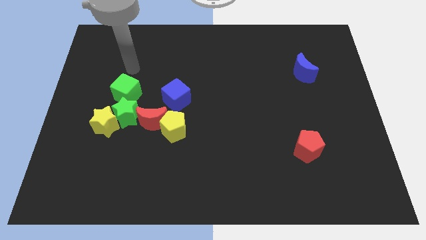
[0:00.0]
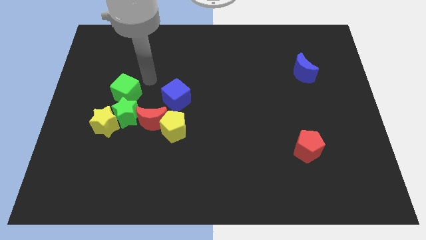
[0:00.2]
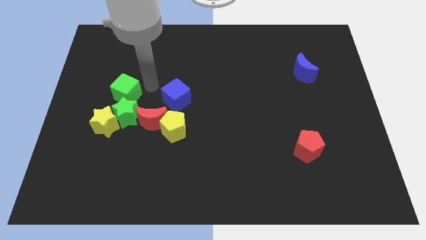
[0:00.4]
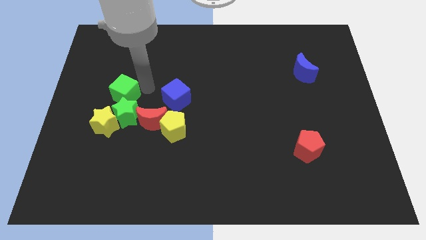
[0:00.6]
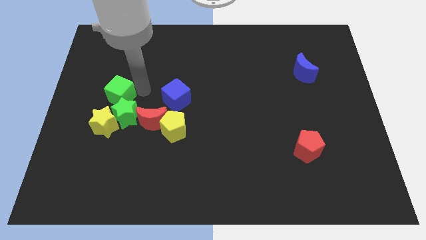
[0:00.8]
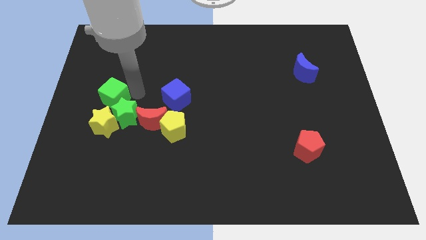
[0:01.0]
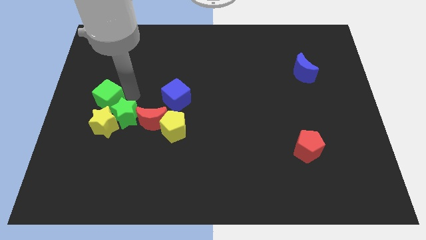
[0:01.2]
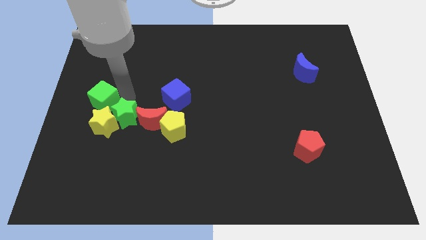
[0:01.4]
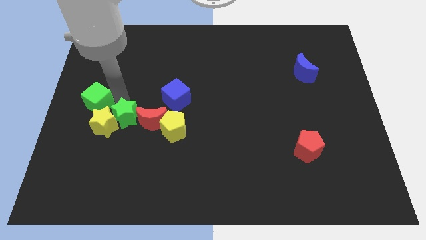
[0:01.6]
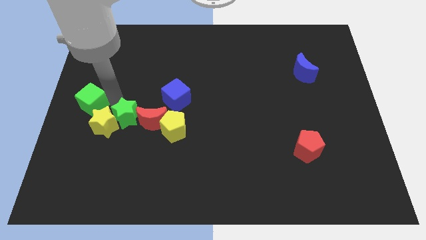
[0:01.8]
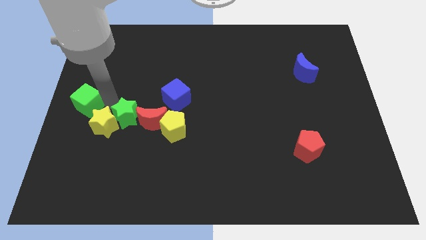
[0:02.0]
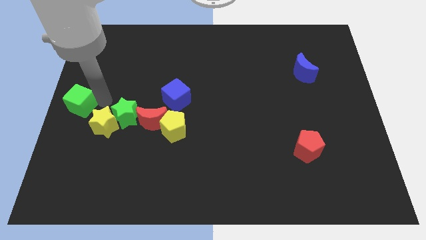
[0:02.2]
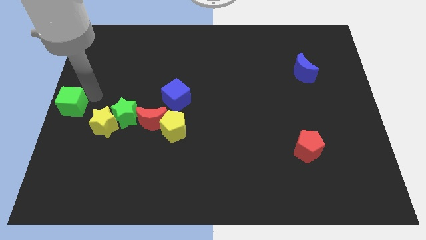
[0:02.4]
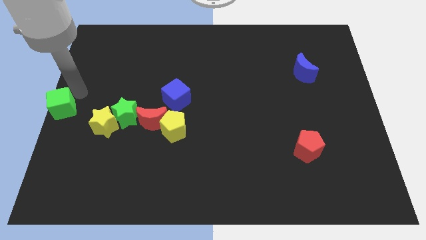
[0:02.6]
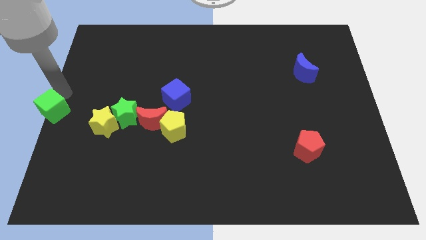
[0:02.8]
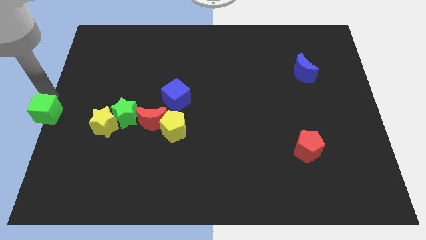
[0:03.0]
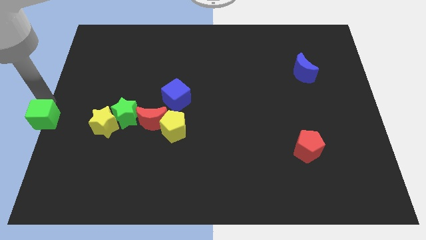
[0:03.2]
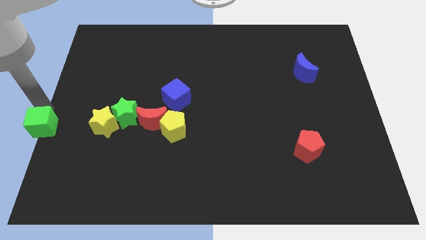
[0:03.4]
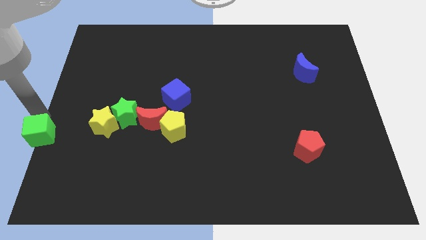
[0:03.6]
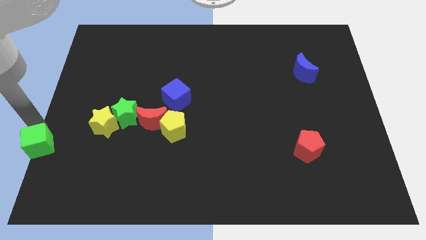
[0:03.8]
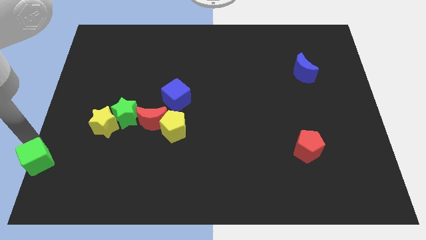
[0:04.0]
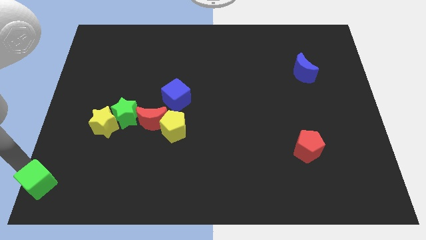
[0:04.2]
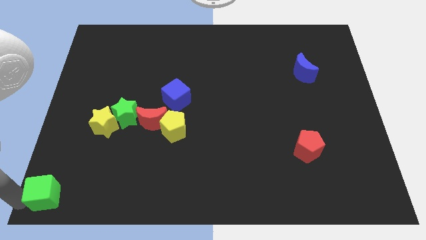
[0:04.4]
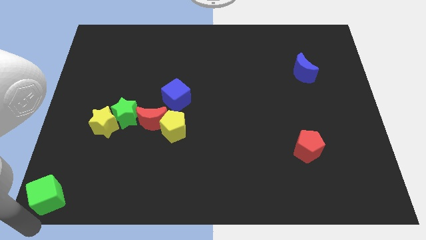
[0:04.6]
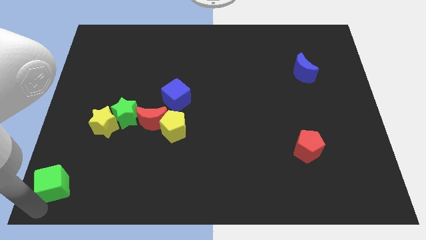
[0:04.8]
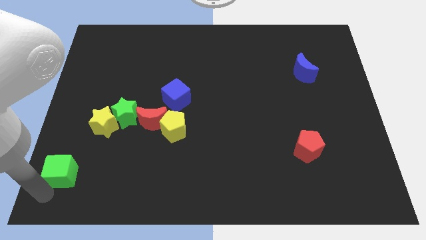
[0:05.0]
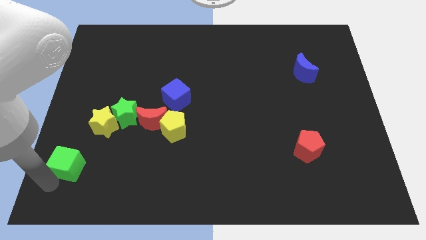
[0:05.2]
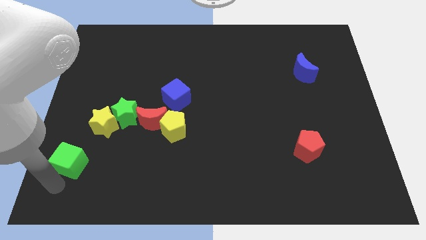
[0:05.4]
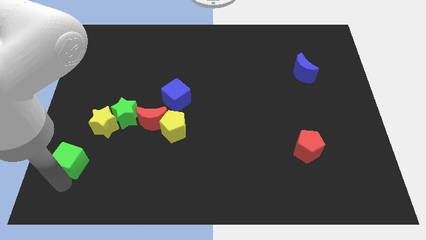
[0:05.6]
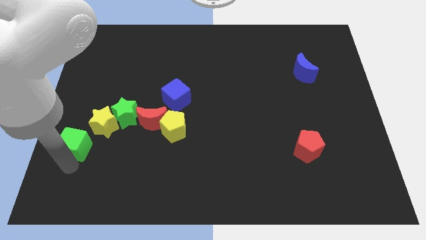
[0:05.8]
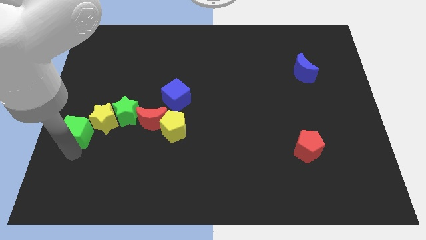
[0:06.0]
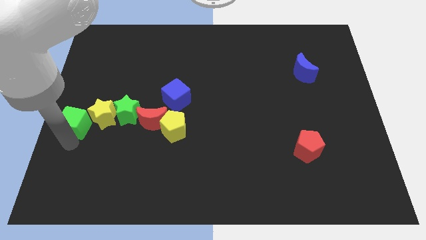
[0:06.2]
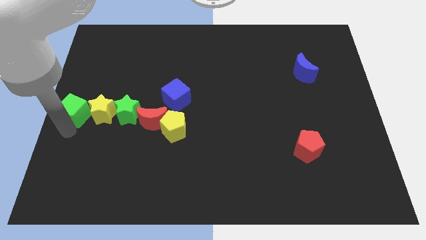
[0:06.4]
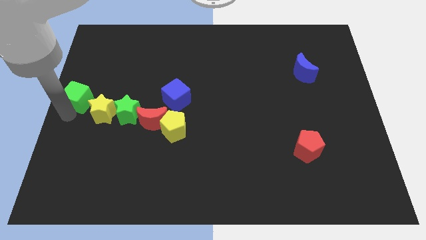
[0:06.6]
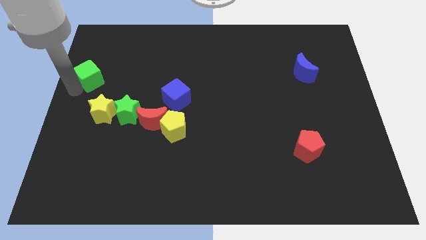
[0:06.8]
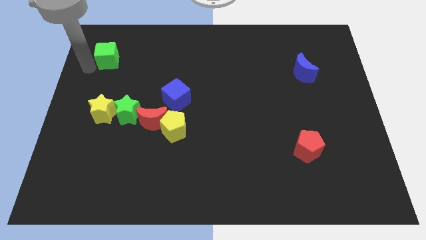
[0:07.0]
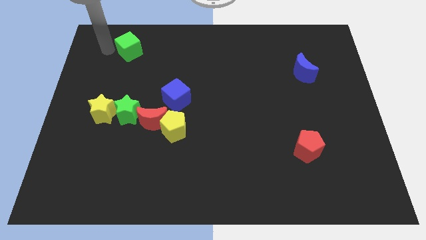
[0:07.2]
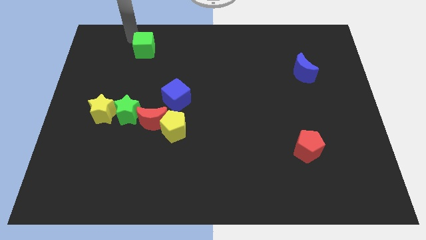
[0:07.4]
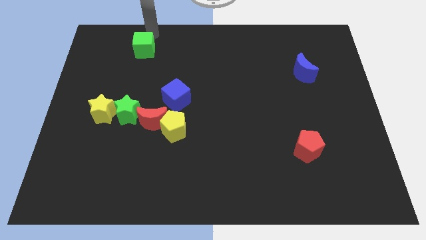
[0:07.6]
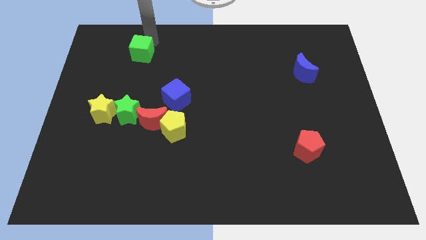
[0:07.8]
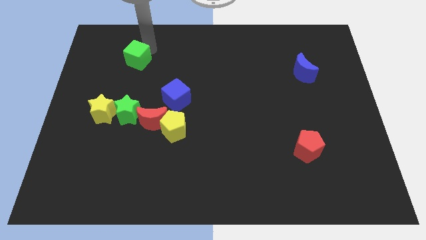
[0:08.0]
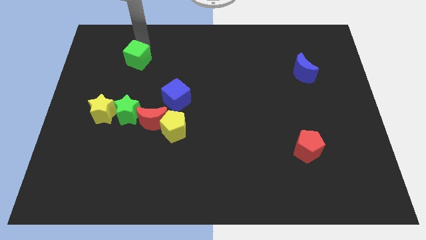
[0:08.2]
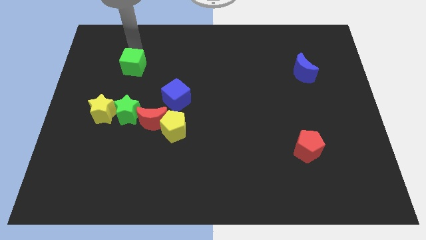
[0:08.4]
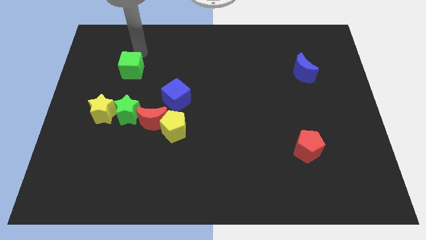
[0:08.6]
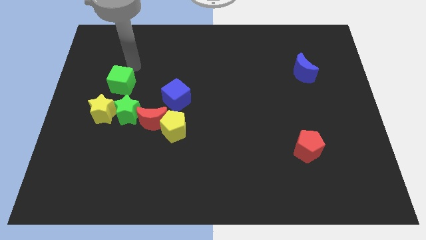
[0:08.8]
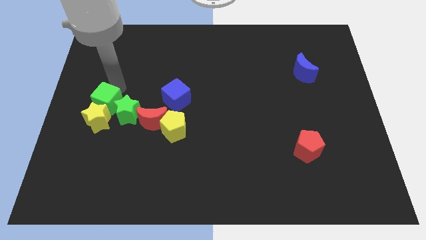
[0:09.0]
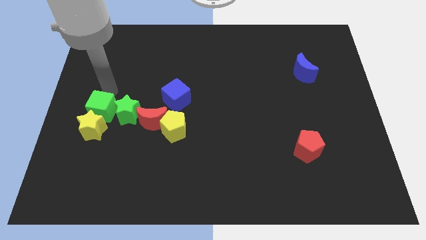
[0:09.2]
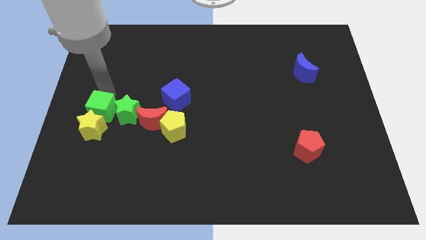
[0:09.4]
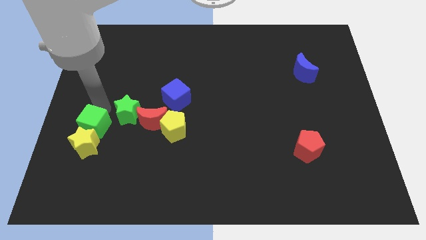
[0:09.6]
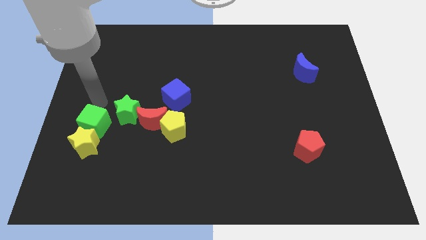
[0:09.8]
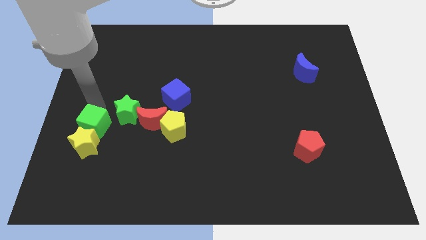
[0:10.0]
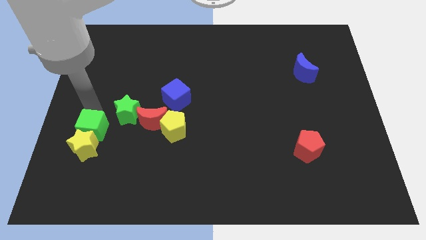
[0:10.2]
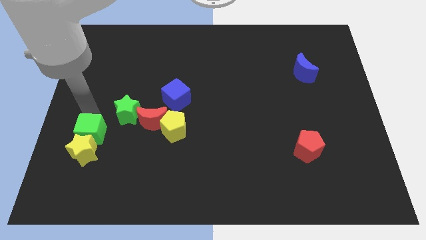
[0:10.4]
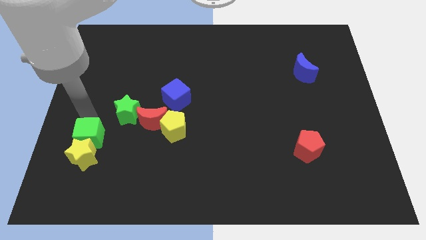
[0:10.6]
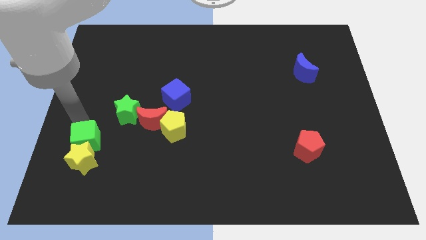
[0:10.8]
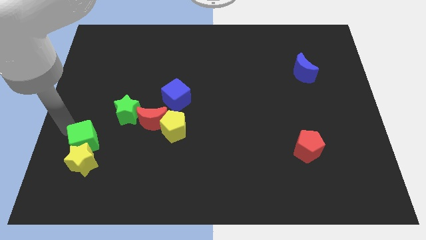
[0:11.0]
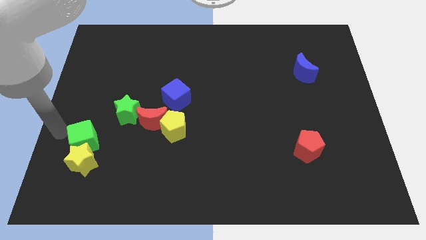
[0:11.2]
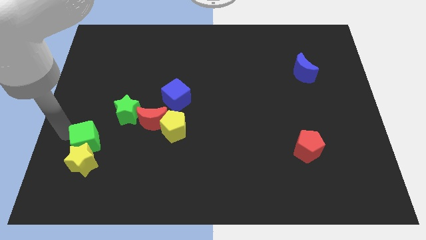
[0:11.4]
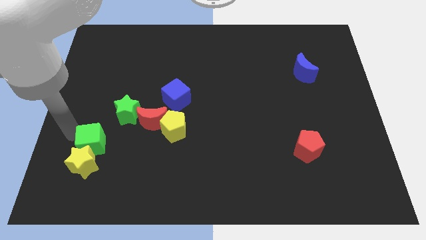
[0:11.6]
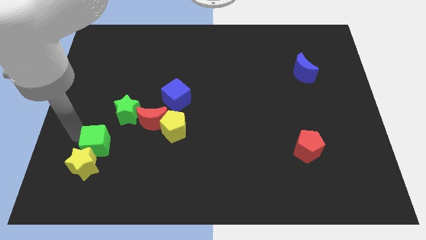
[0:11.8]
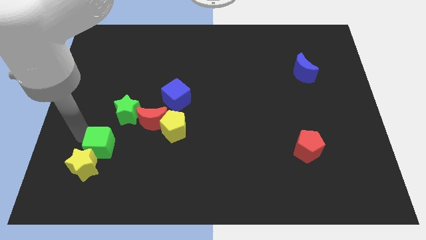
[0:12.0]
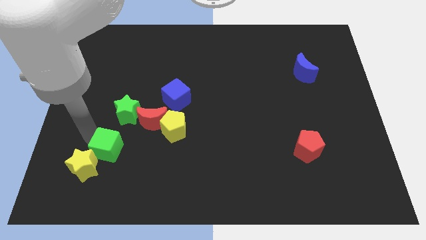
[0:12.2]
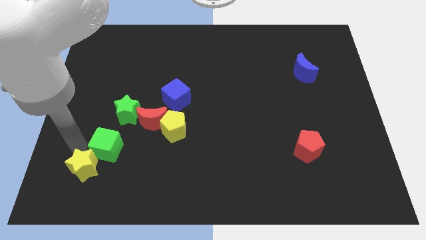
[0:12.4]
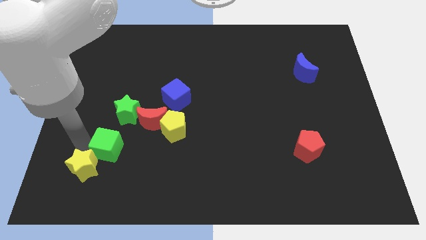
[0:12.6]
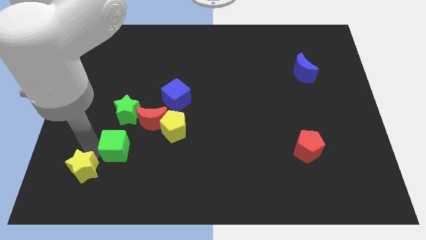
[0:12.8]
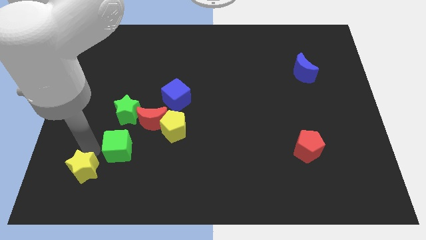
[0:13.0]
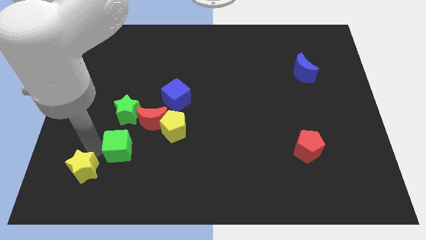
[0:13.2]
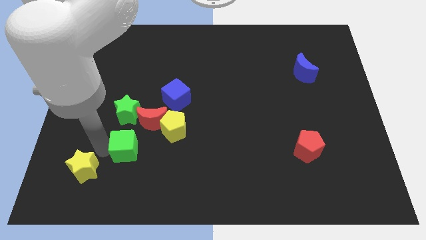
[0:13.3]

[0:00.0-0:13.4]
push the green cube to the bottom left side of the yellow pentagon
